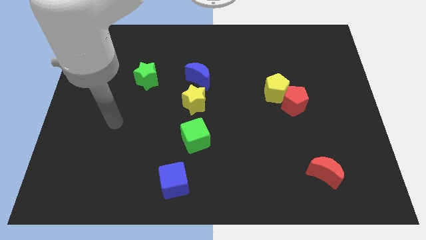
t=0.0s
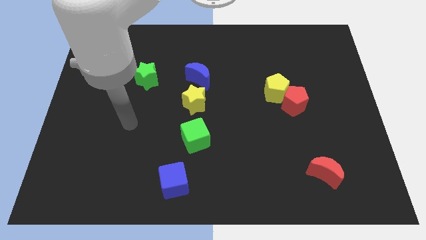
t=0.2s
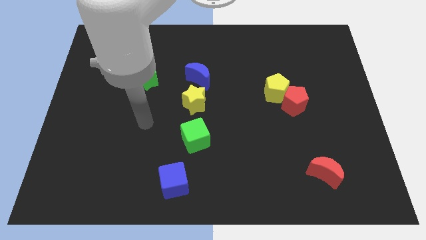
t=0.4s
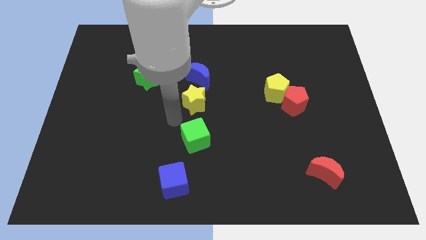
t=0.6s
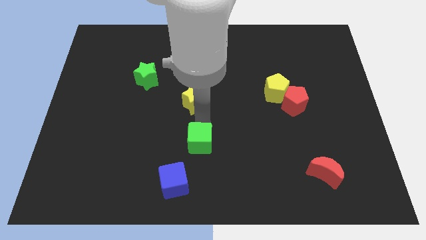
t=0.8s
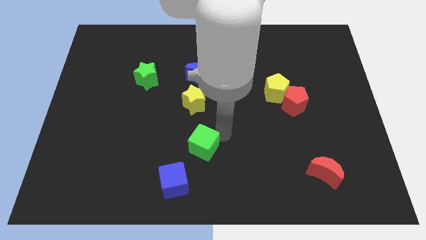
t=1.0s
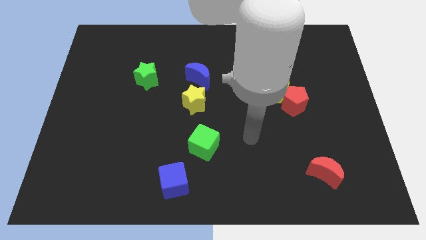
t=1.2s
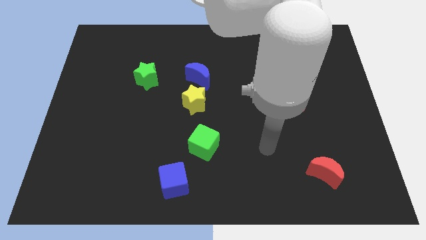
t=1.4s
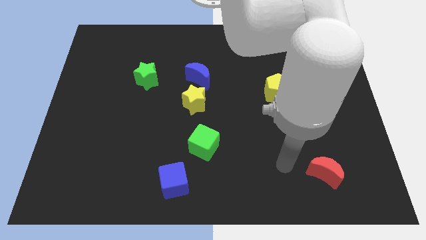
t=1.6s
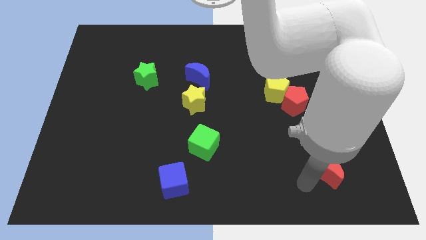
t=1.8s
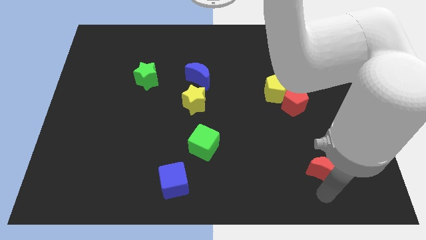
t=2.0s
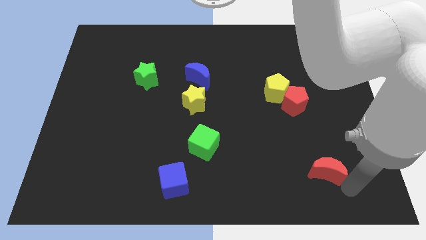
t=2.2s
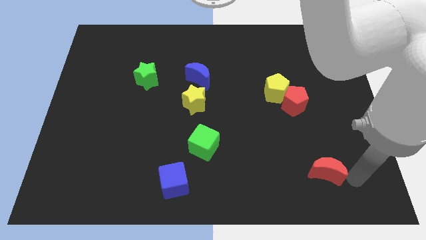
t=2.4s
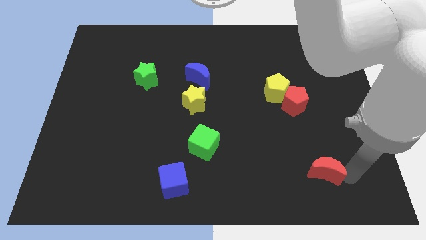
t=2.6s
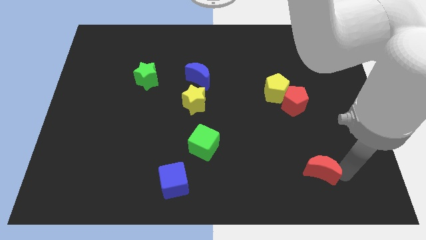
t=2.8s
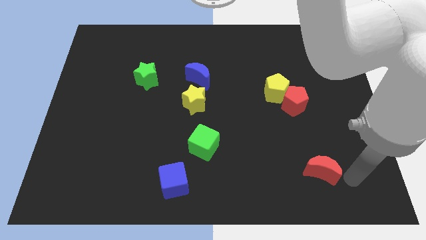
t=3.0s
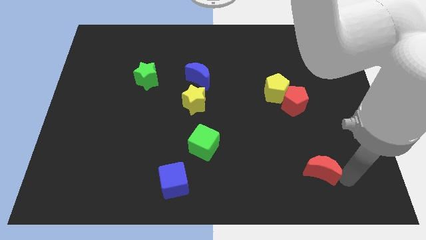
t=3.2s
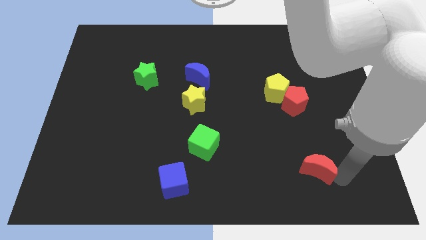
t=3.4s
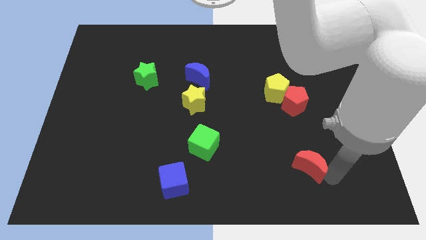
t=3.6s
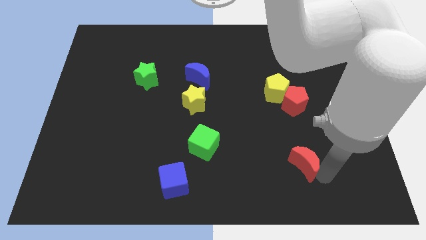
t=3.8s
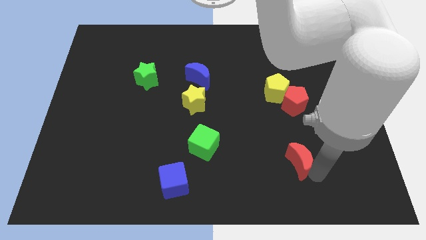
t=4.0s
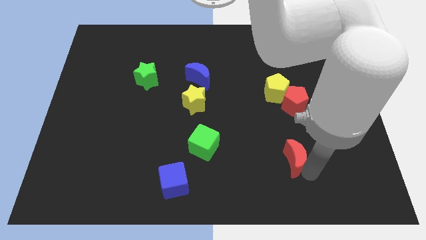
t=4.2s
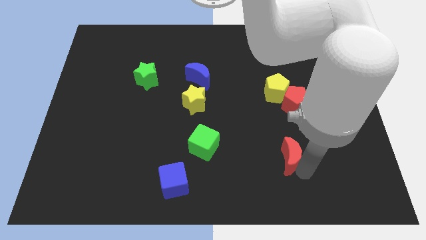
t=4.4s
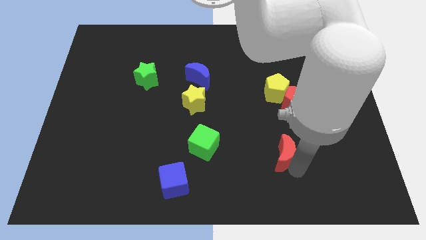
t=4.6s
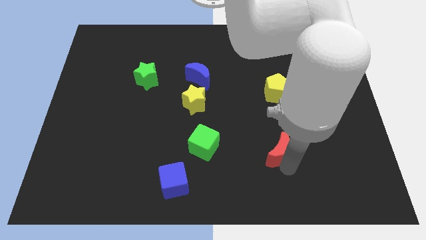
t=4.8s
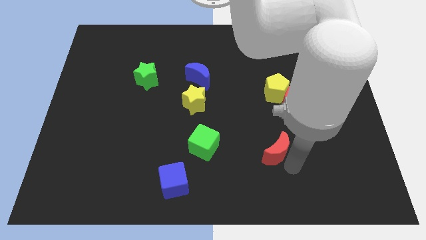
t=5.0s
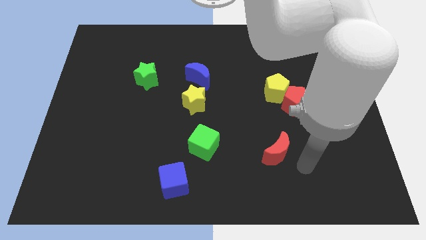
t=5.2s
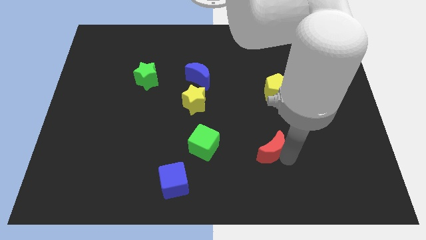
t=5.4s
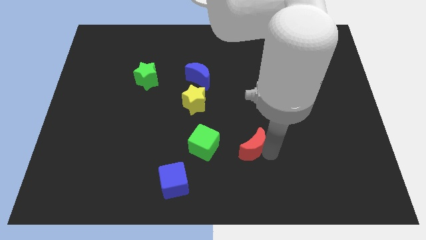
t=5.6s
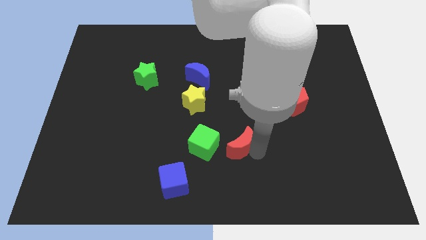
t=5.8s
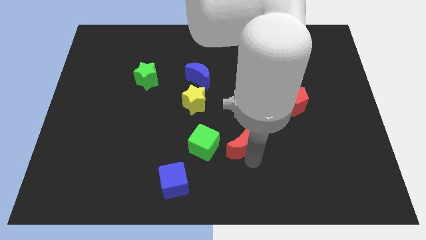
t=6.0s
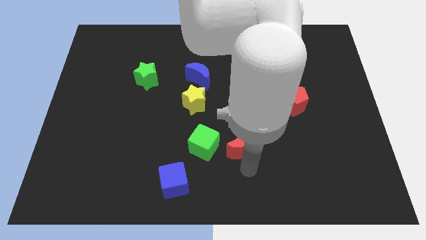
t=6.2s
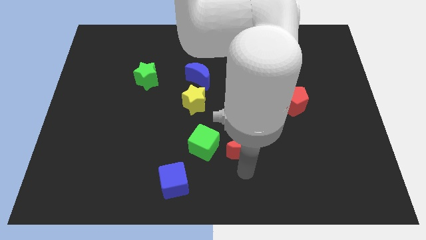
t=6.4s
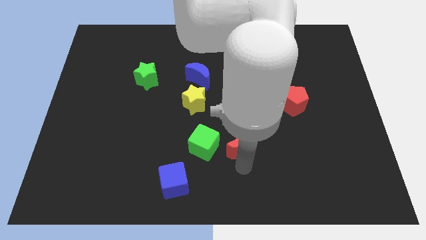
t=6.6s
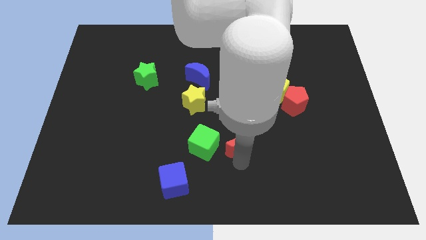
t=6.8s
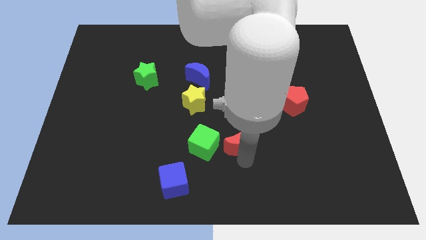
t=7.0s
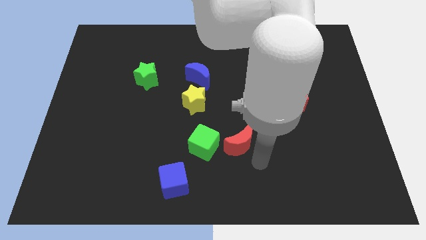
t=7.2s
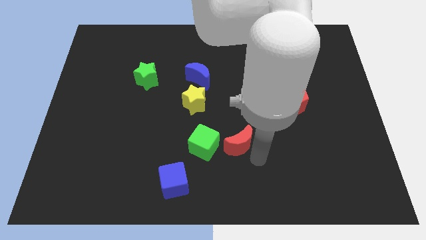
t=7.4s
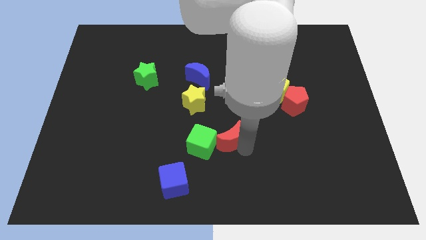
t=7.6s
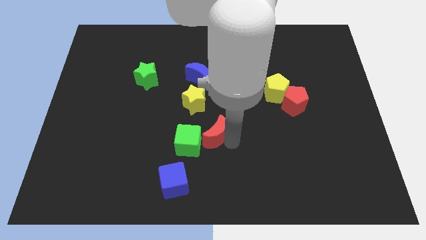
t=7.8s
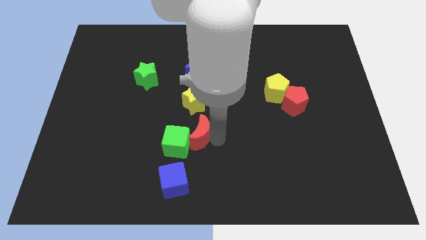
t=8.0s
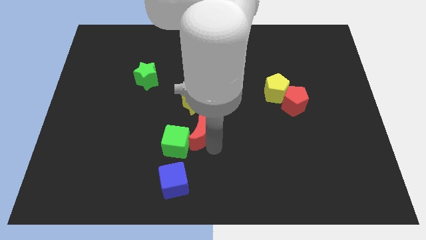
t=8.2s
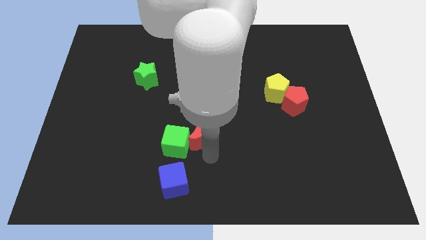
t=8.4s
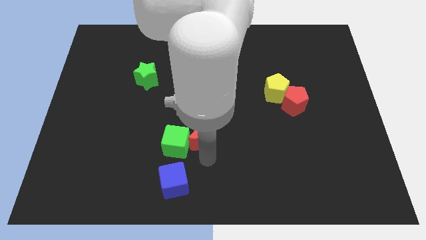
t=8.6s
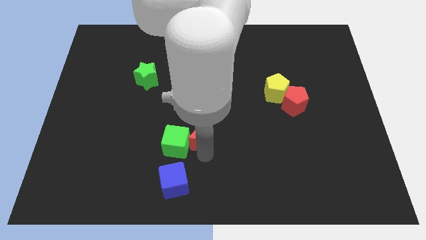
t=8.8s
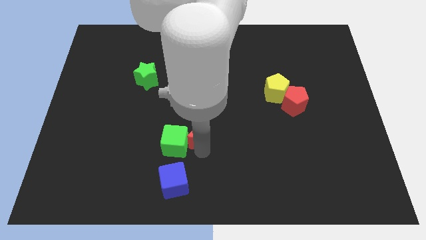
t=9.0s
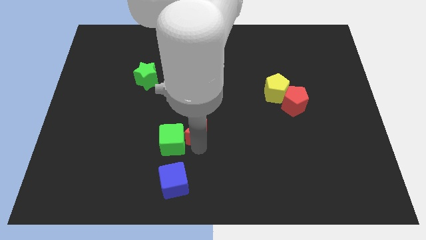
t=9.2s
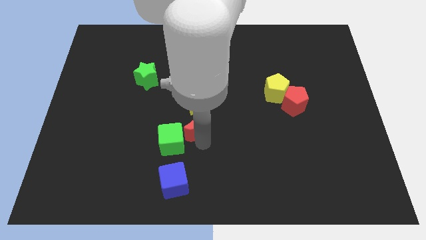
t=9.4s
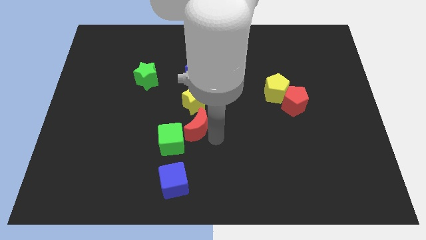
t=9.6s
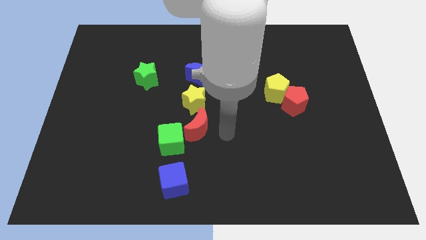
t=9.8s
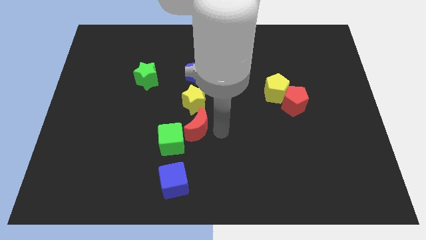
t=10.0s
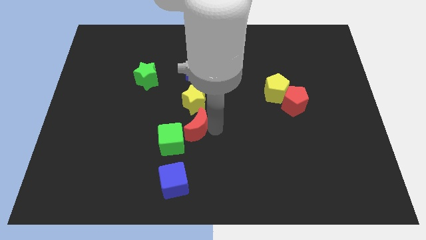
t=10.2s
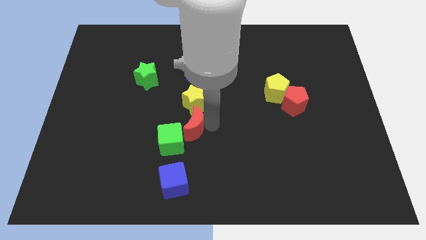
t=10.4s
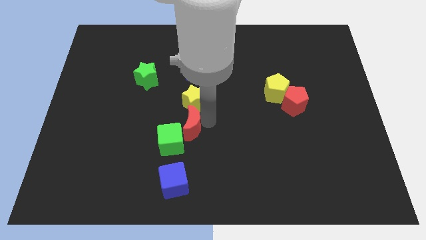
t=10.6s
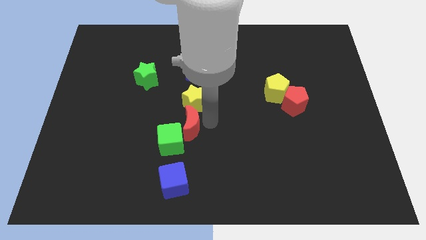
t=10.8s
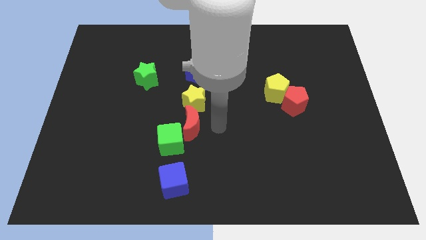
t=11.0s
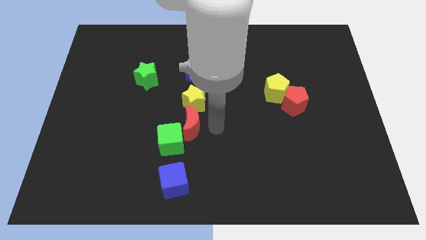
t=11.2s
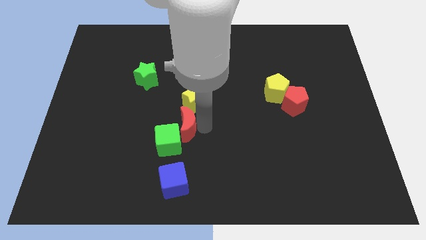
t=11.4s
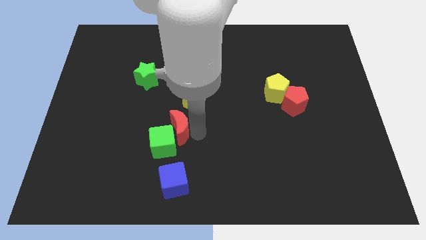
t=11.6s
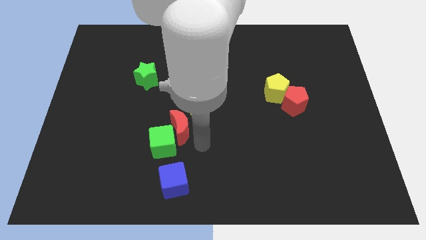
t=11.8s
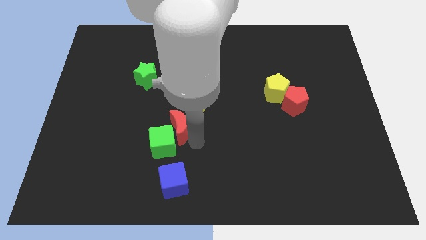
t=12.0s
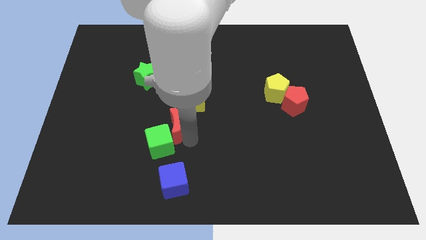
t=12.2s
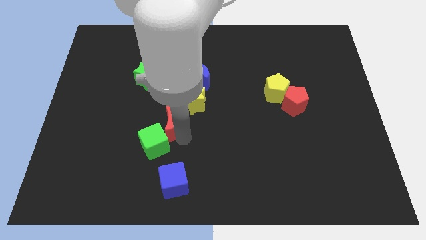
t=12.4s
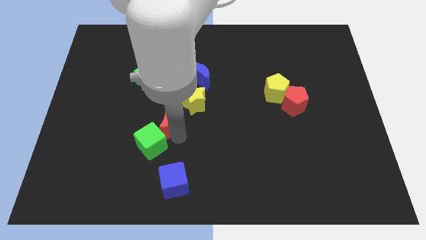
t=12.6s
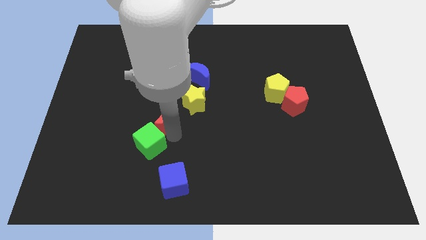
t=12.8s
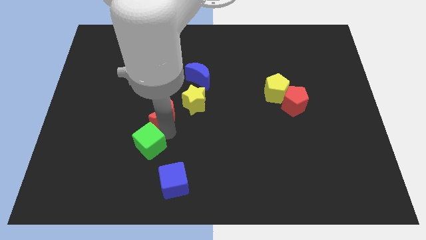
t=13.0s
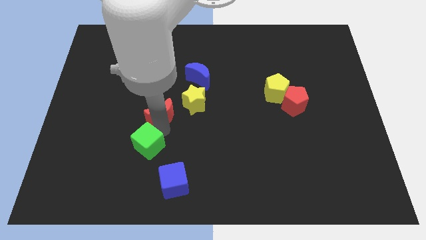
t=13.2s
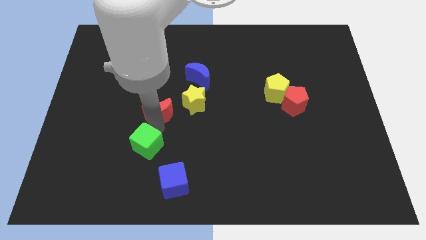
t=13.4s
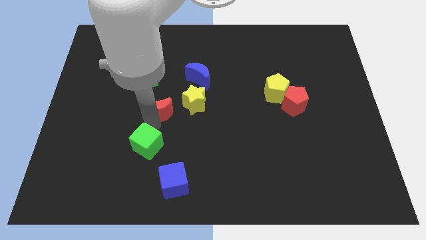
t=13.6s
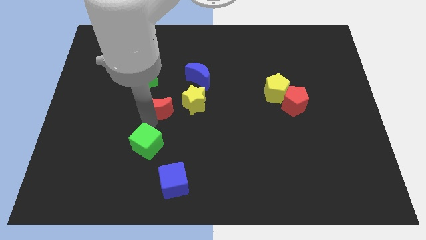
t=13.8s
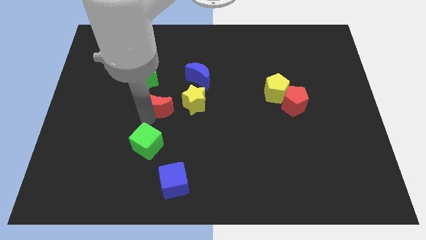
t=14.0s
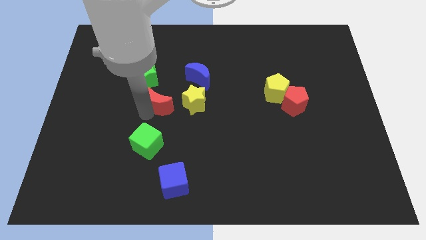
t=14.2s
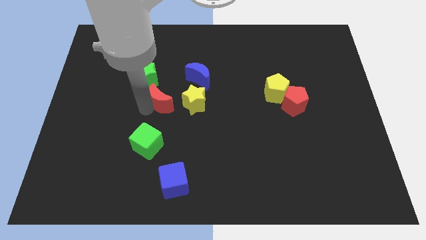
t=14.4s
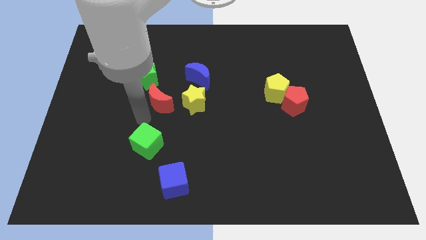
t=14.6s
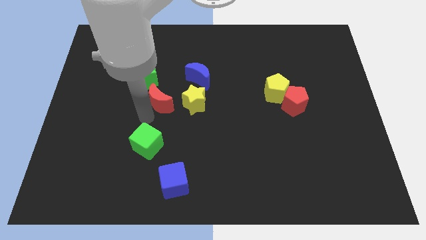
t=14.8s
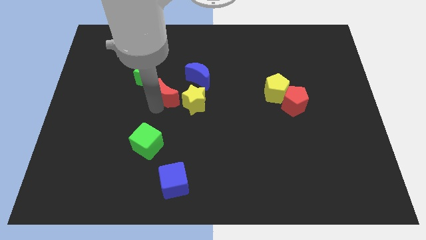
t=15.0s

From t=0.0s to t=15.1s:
put the red moon to the top left side of the yellow star
